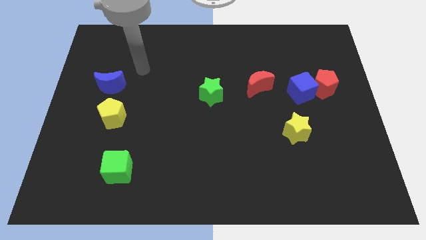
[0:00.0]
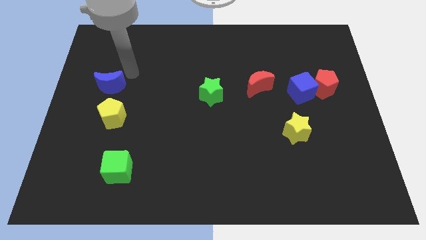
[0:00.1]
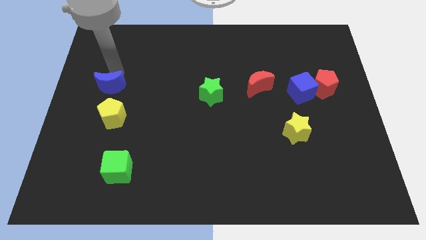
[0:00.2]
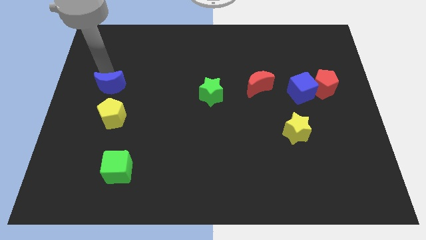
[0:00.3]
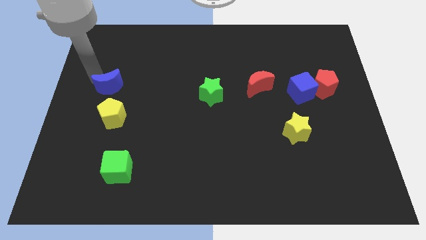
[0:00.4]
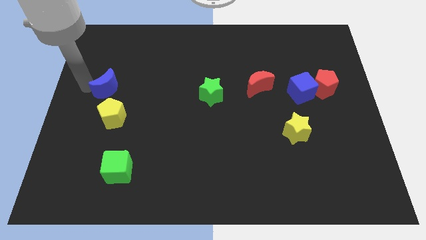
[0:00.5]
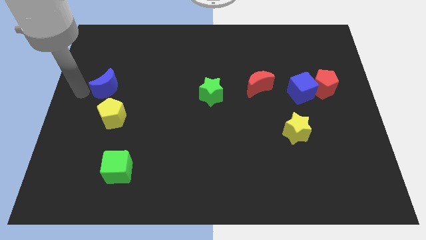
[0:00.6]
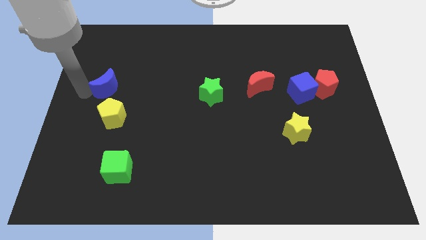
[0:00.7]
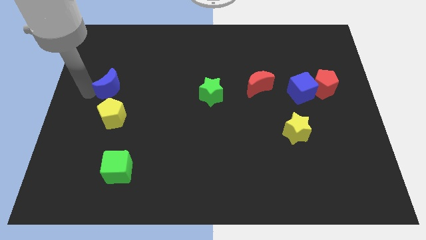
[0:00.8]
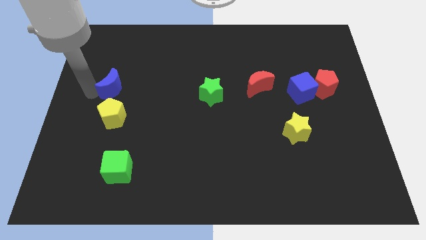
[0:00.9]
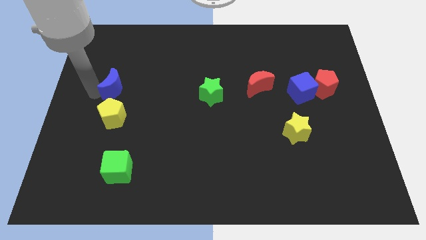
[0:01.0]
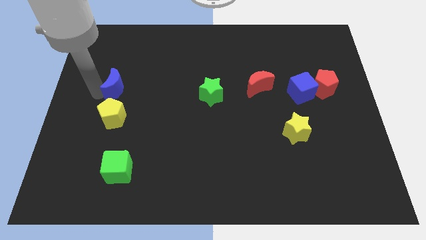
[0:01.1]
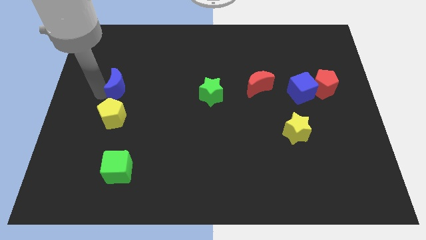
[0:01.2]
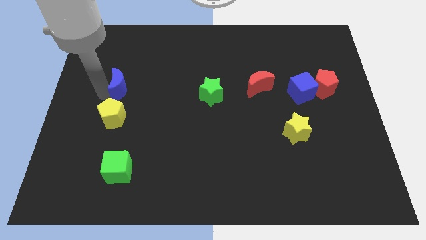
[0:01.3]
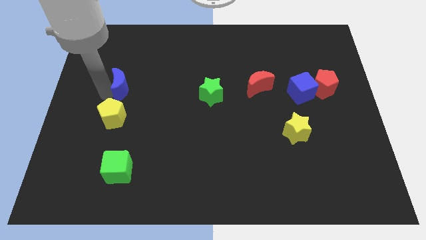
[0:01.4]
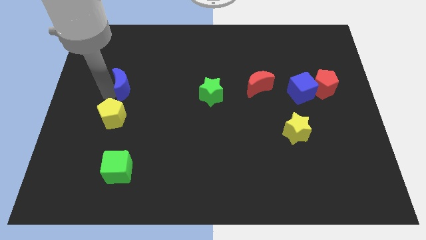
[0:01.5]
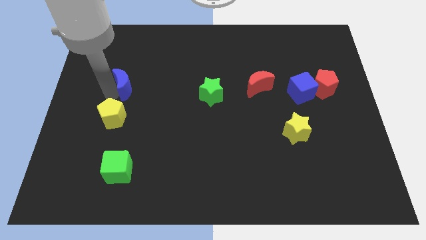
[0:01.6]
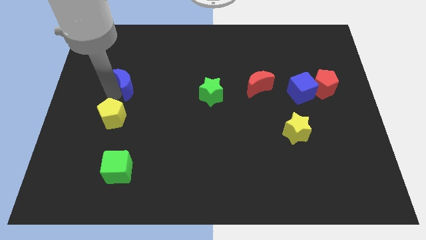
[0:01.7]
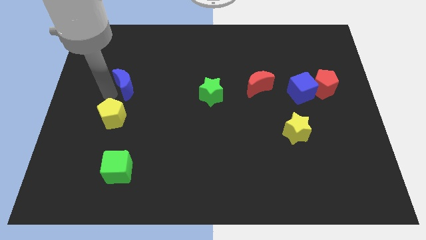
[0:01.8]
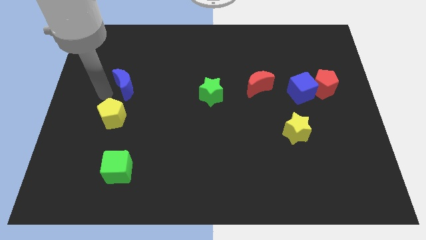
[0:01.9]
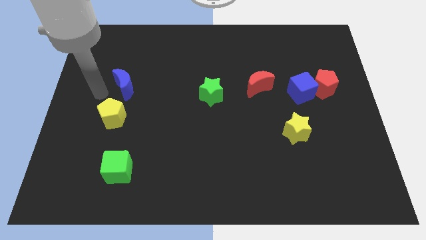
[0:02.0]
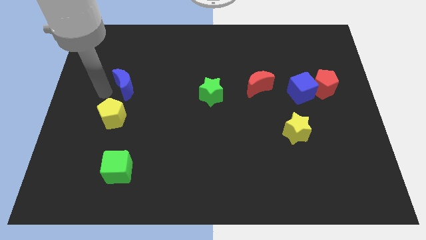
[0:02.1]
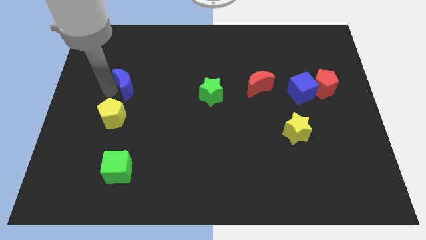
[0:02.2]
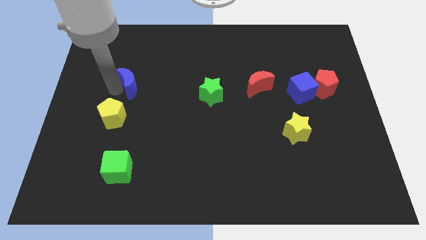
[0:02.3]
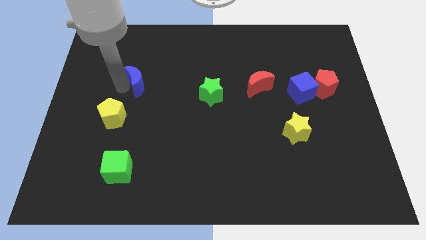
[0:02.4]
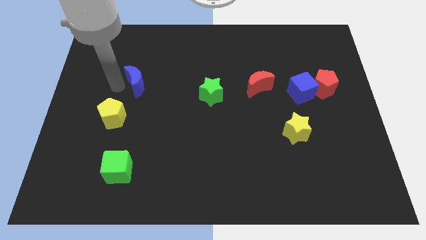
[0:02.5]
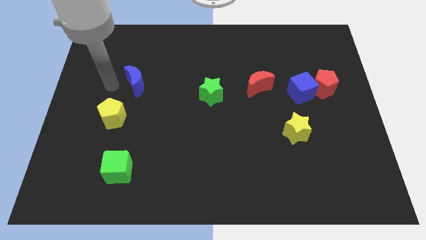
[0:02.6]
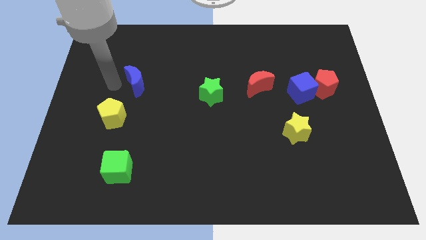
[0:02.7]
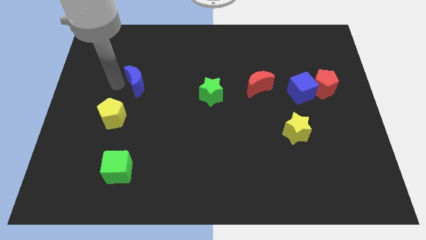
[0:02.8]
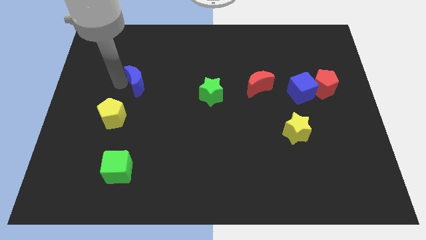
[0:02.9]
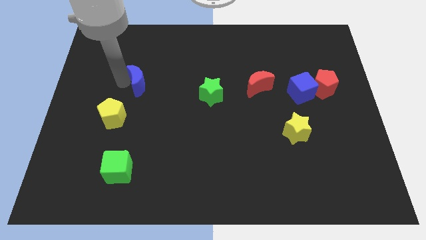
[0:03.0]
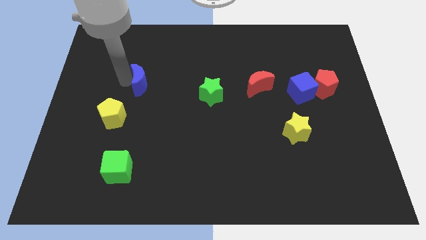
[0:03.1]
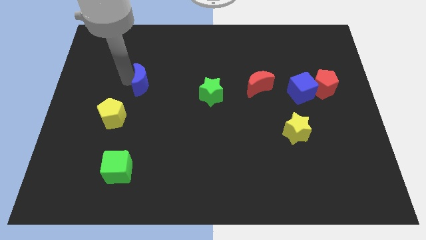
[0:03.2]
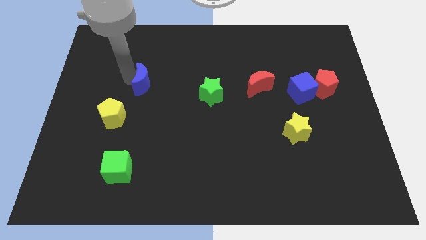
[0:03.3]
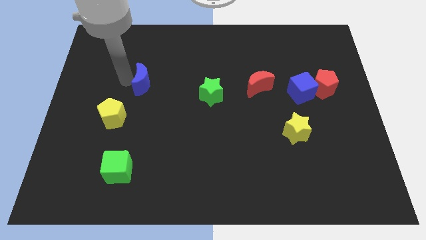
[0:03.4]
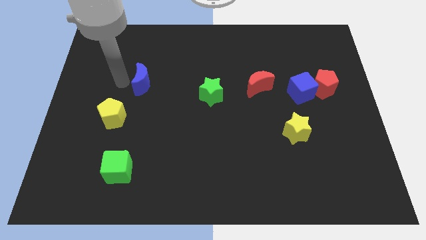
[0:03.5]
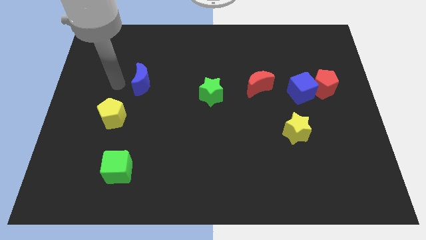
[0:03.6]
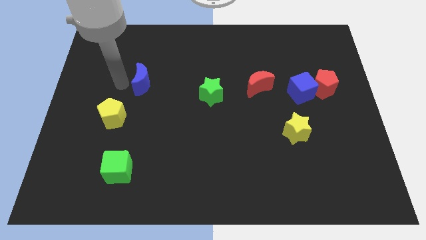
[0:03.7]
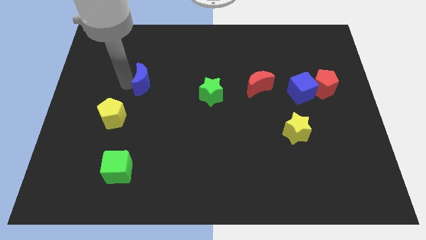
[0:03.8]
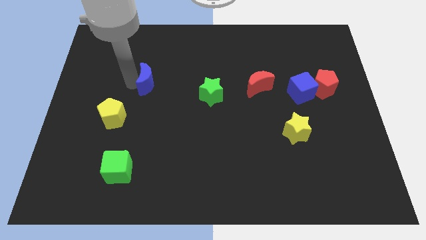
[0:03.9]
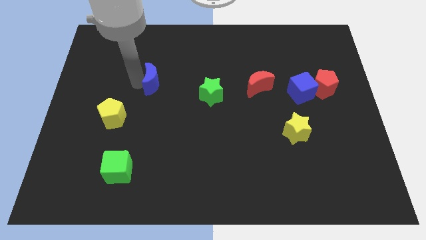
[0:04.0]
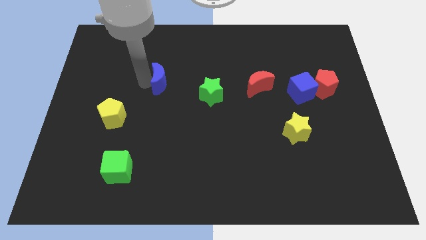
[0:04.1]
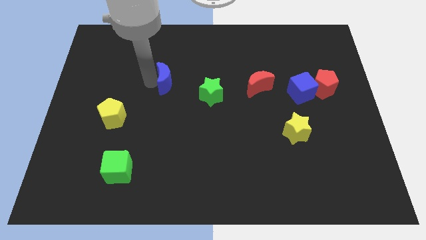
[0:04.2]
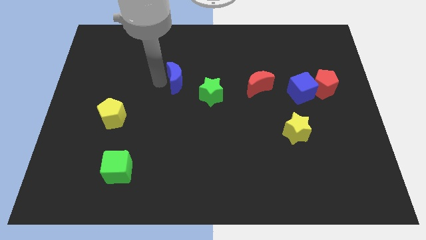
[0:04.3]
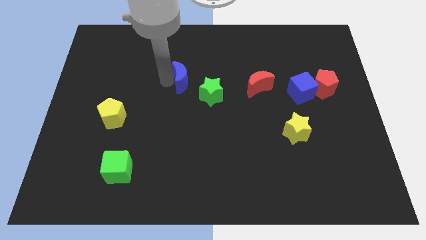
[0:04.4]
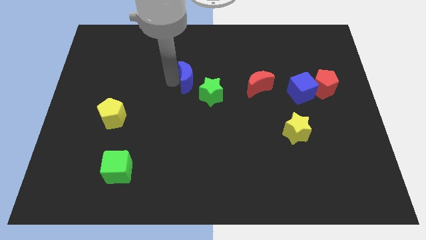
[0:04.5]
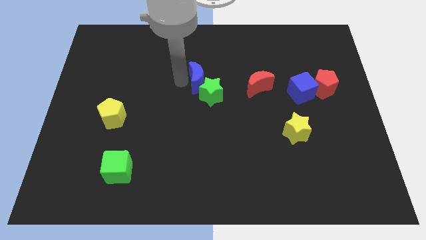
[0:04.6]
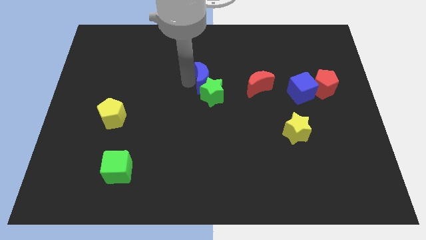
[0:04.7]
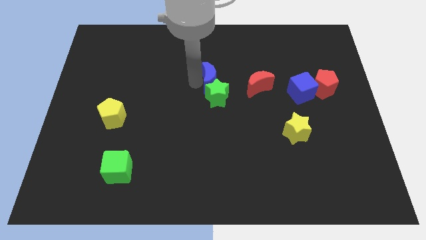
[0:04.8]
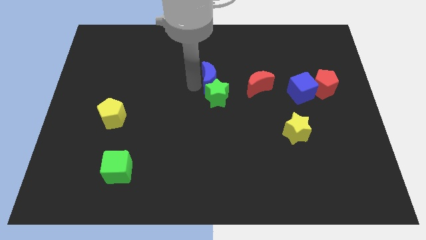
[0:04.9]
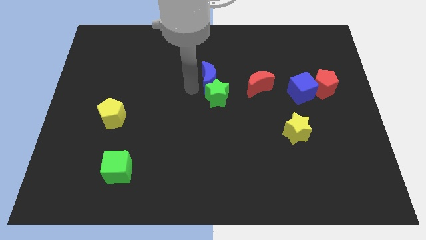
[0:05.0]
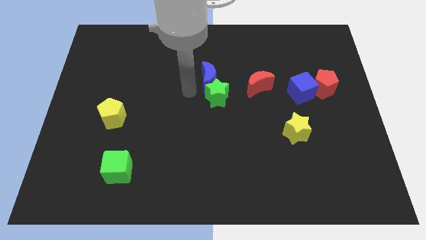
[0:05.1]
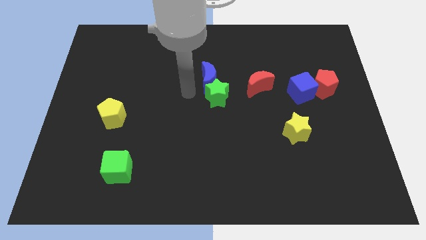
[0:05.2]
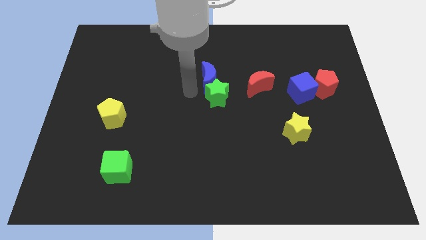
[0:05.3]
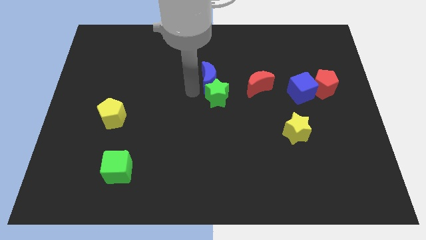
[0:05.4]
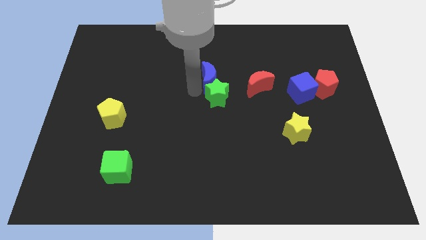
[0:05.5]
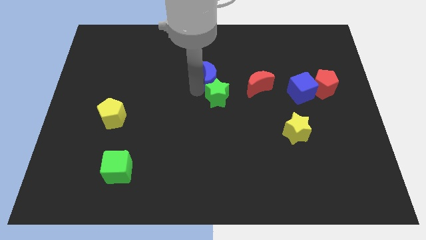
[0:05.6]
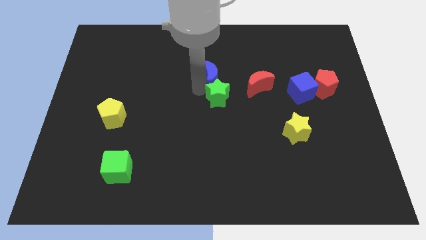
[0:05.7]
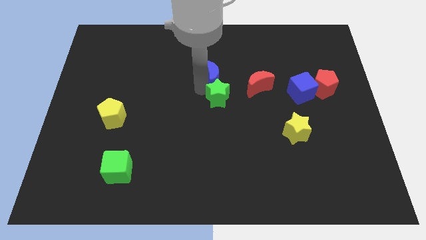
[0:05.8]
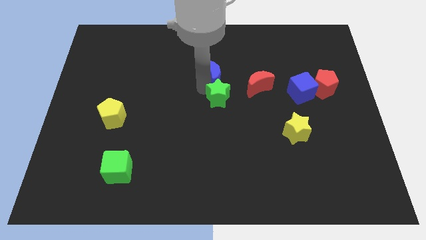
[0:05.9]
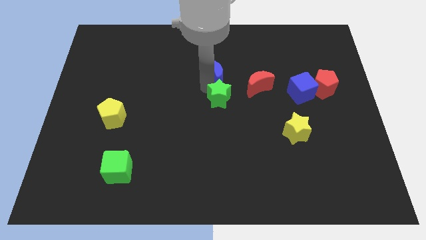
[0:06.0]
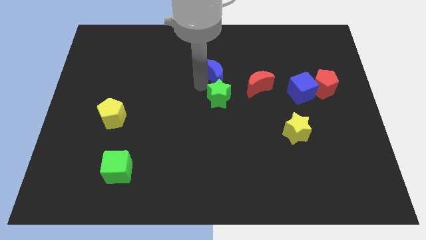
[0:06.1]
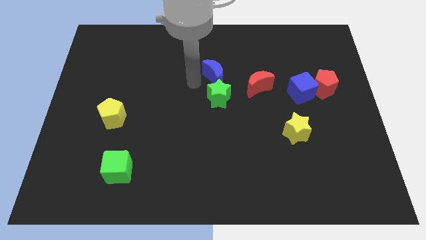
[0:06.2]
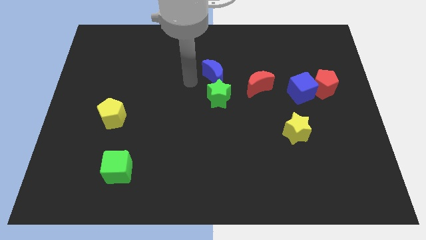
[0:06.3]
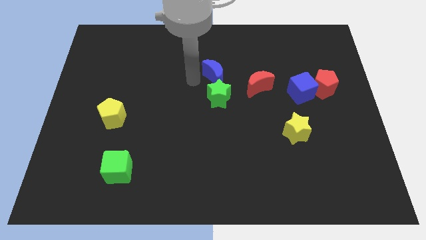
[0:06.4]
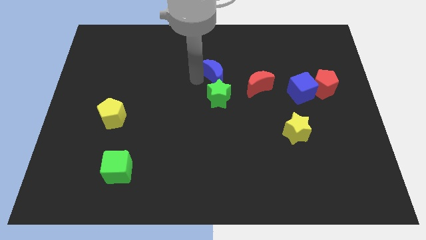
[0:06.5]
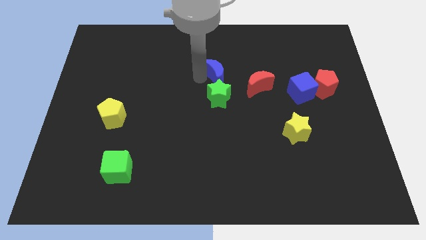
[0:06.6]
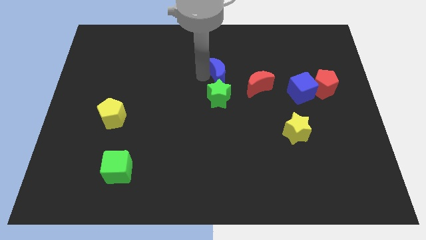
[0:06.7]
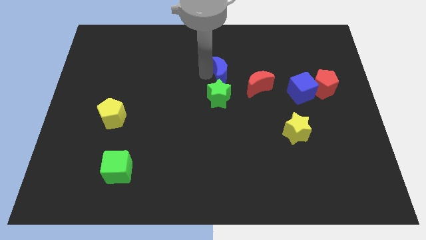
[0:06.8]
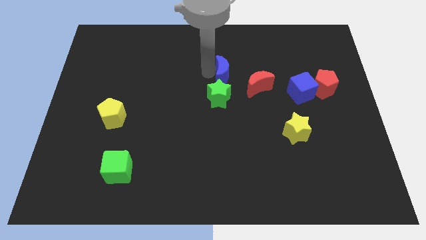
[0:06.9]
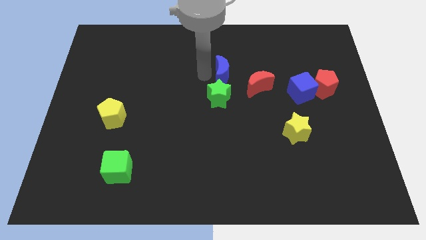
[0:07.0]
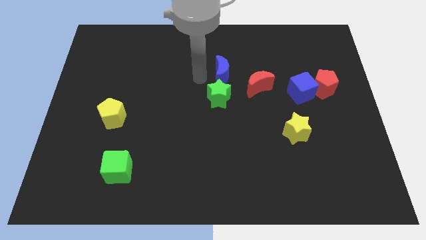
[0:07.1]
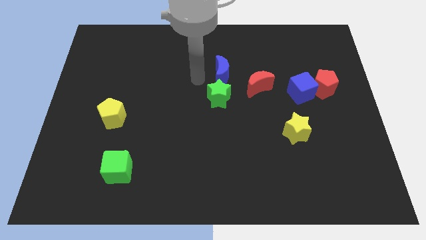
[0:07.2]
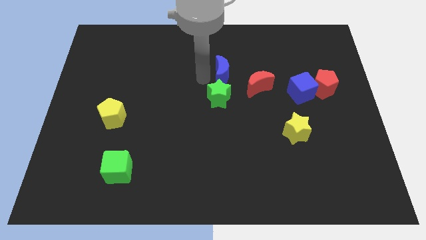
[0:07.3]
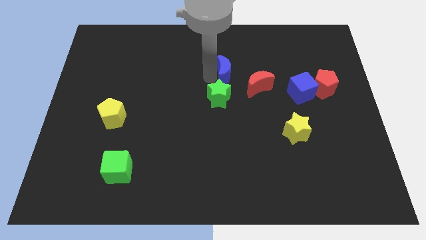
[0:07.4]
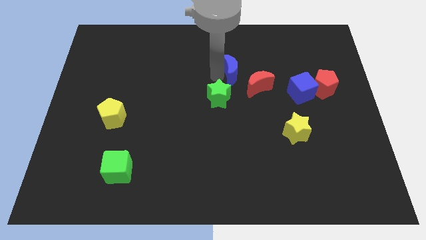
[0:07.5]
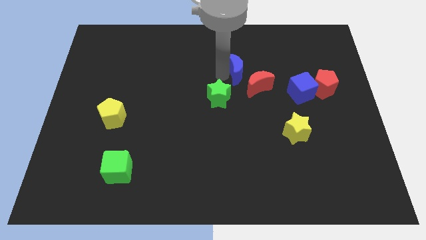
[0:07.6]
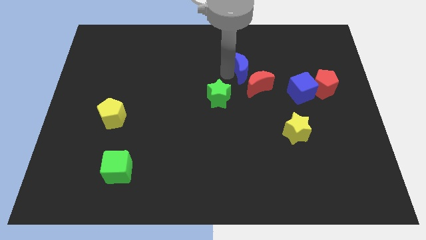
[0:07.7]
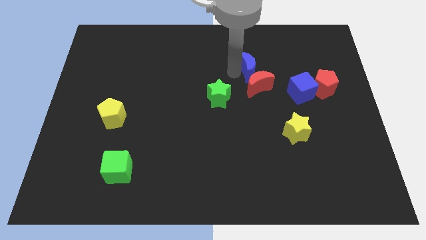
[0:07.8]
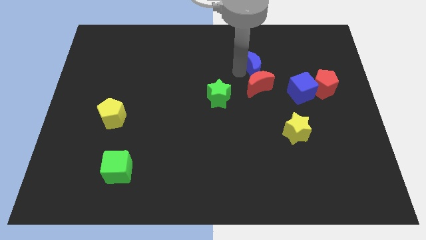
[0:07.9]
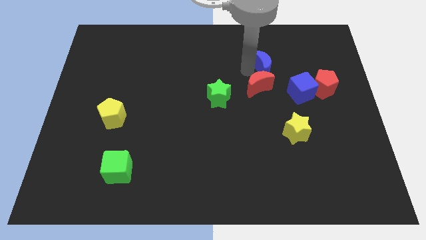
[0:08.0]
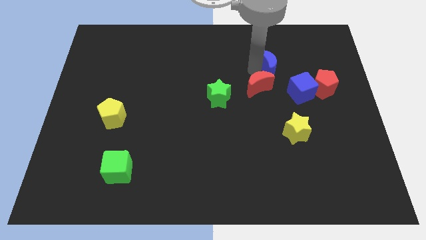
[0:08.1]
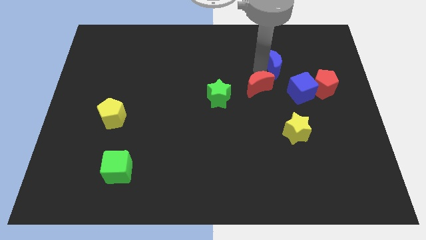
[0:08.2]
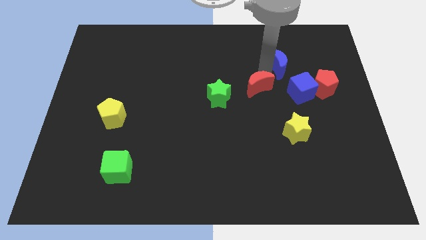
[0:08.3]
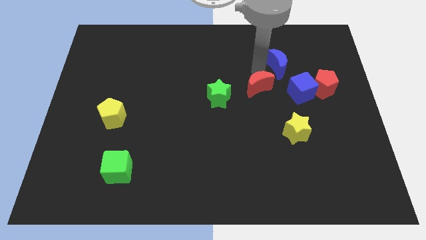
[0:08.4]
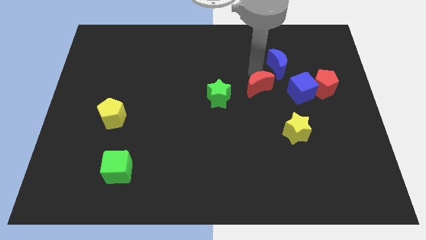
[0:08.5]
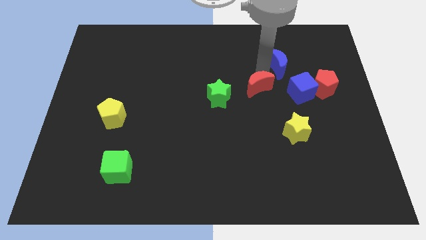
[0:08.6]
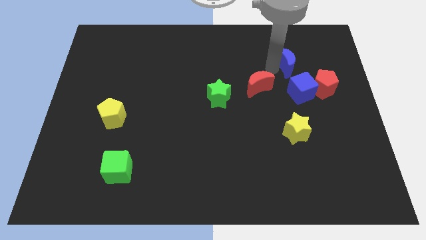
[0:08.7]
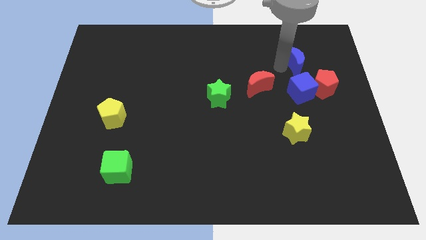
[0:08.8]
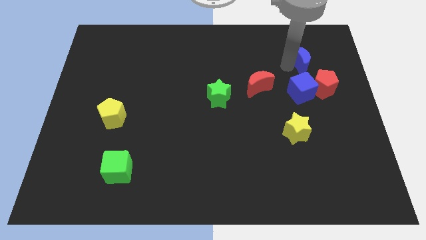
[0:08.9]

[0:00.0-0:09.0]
put the blue moon to the top side of the red pentagon
